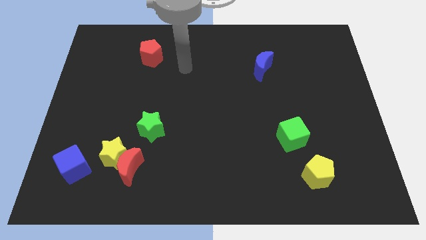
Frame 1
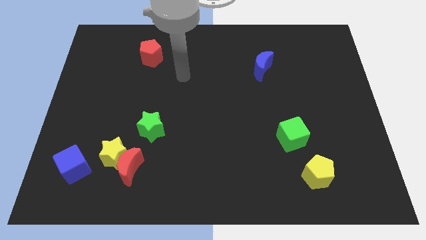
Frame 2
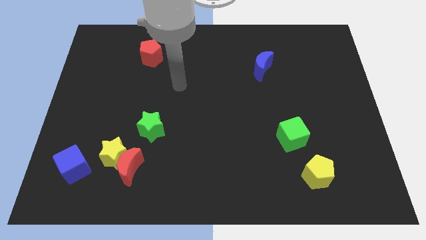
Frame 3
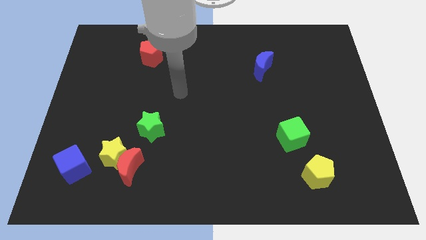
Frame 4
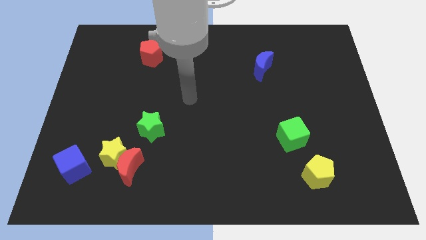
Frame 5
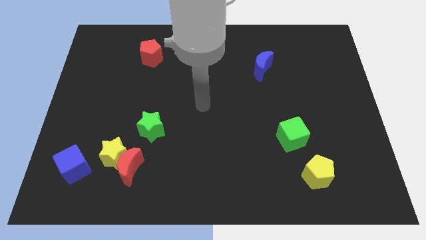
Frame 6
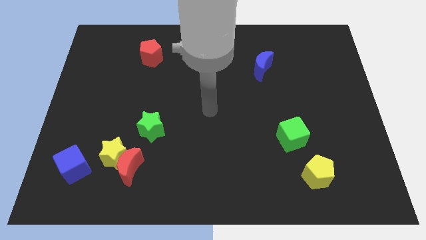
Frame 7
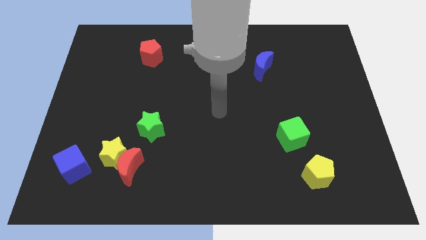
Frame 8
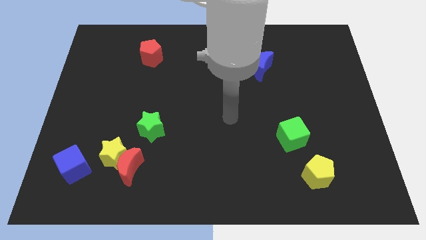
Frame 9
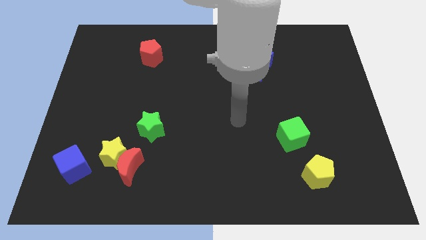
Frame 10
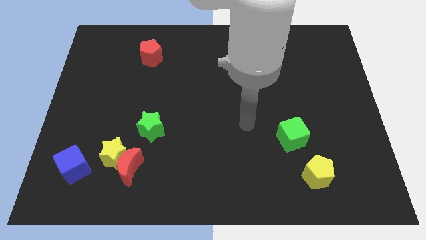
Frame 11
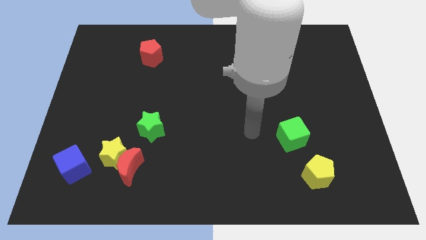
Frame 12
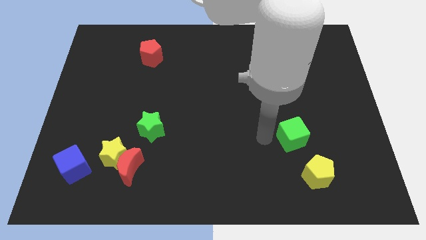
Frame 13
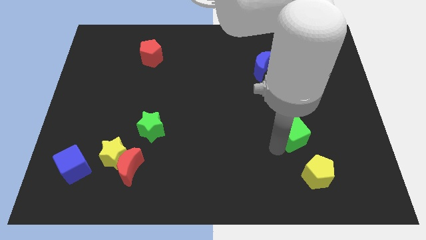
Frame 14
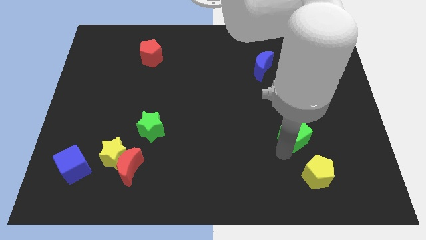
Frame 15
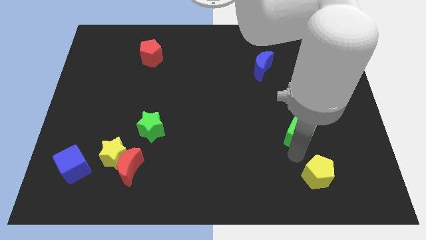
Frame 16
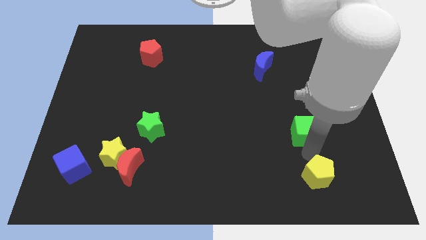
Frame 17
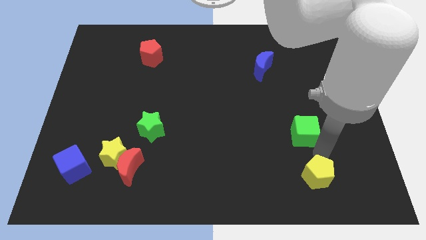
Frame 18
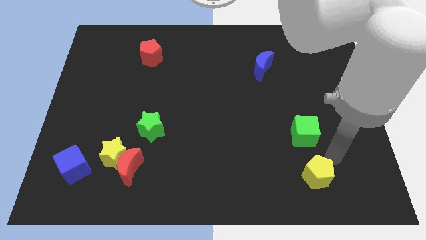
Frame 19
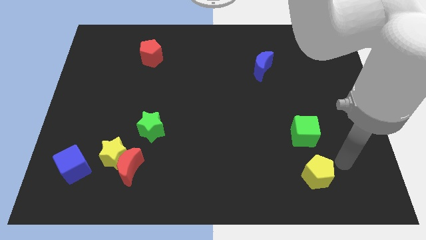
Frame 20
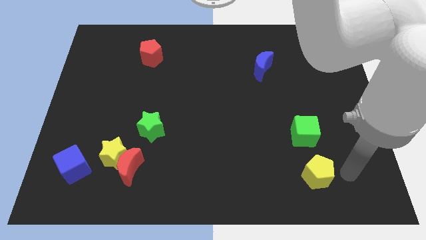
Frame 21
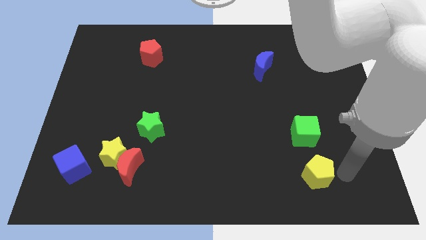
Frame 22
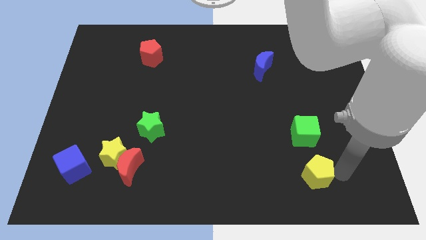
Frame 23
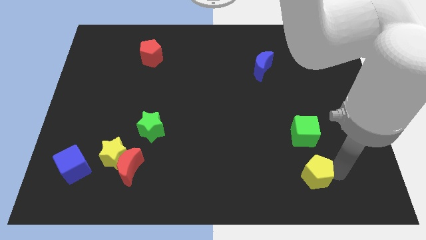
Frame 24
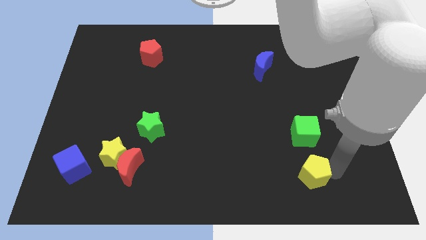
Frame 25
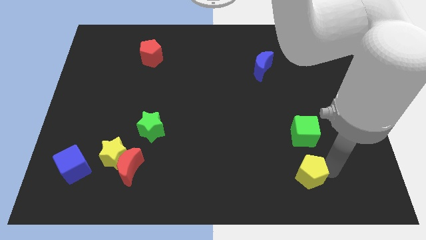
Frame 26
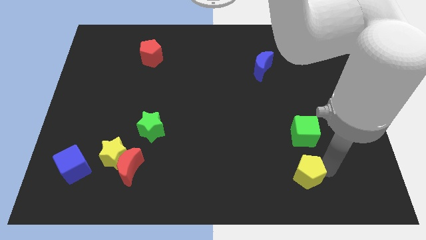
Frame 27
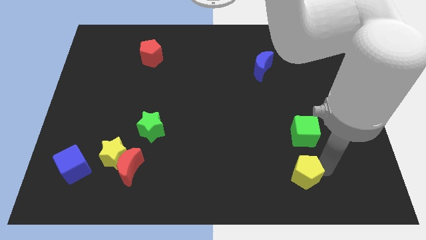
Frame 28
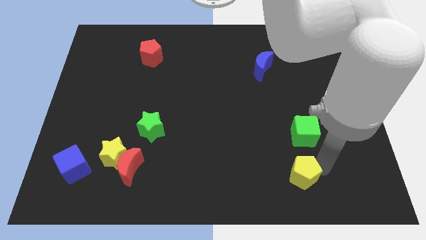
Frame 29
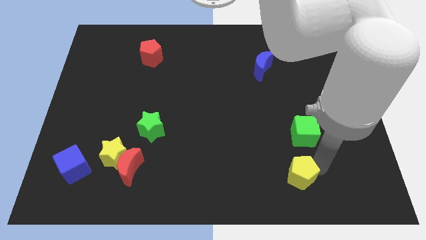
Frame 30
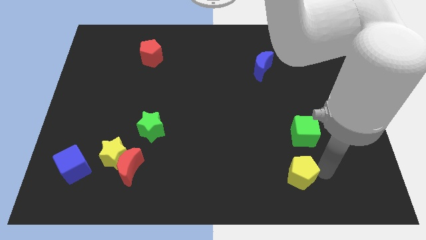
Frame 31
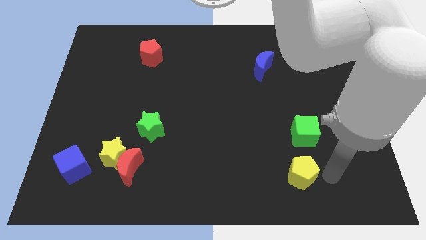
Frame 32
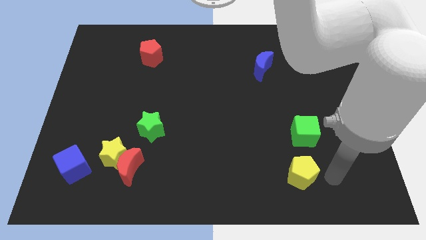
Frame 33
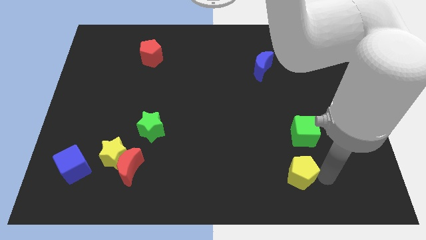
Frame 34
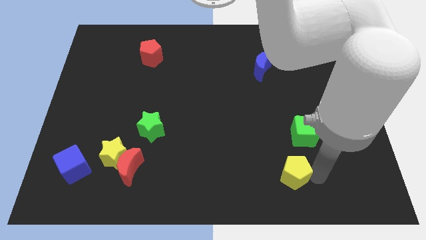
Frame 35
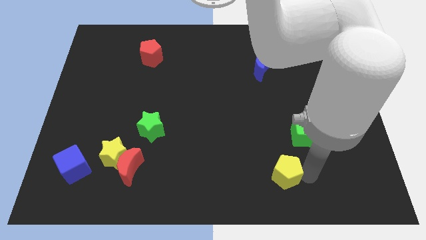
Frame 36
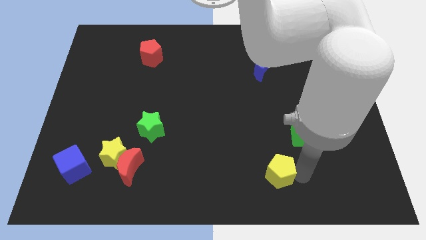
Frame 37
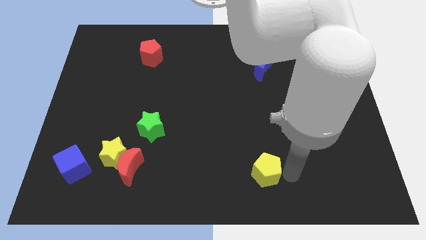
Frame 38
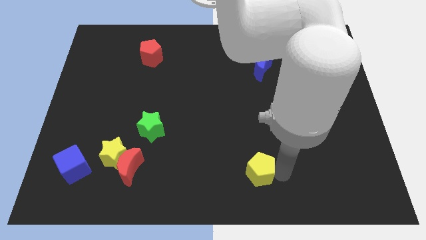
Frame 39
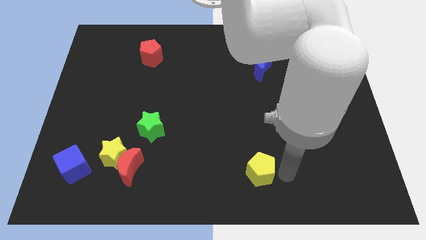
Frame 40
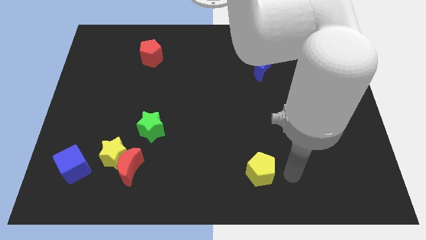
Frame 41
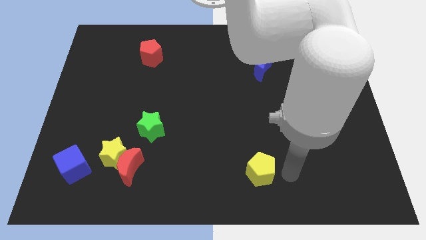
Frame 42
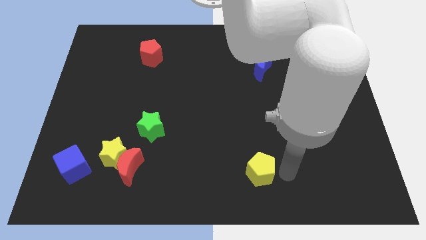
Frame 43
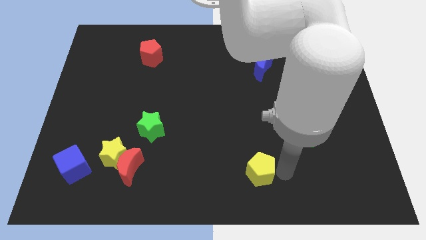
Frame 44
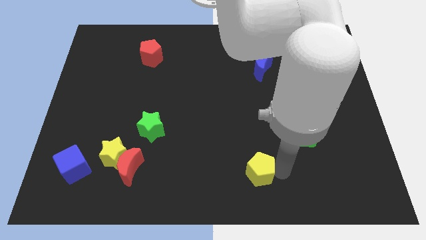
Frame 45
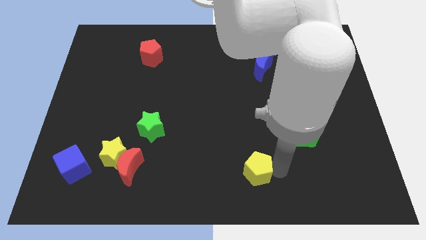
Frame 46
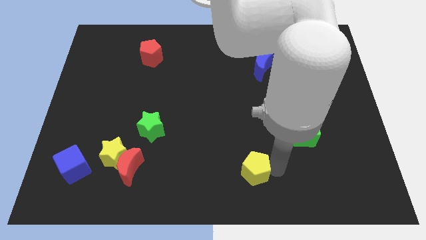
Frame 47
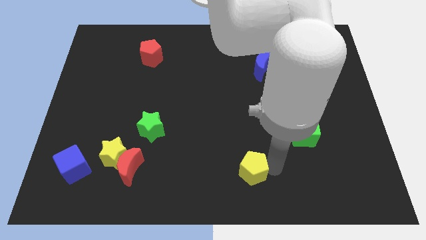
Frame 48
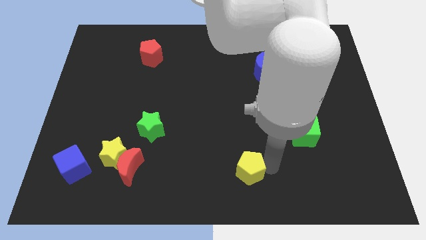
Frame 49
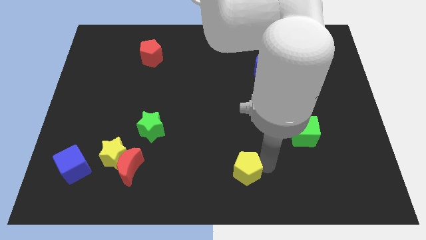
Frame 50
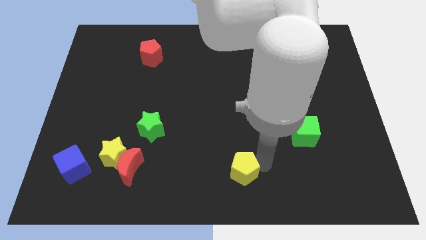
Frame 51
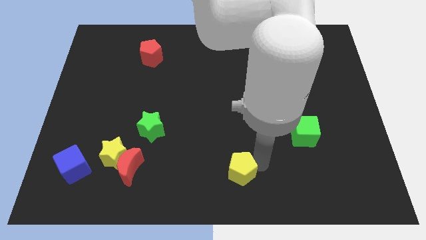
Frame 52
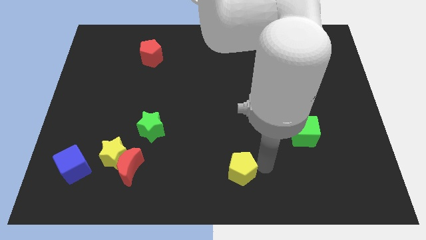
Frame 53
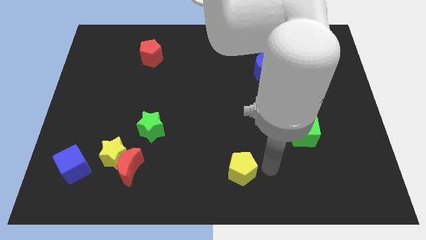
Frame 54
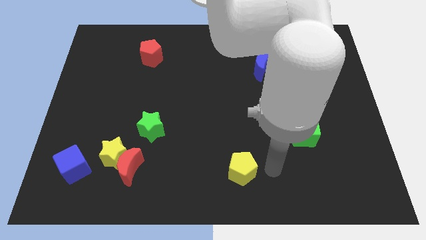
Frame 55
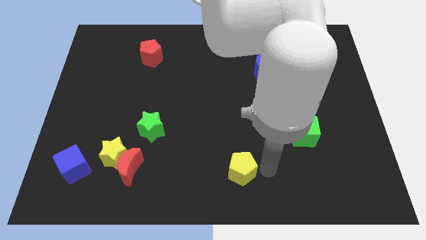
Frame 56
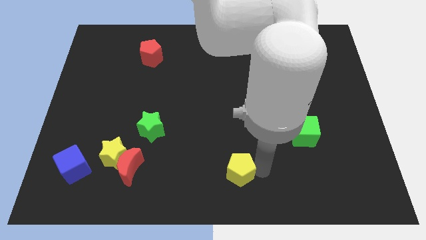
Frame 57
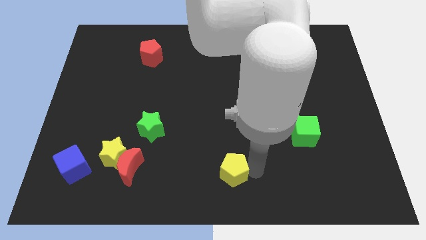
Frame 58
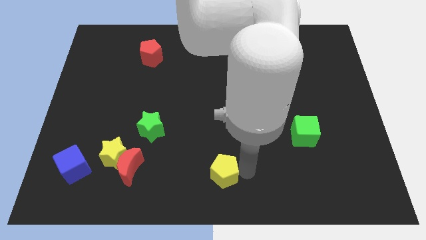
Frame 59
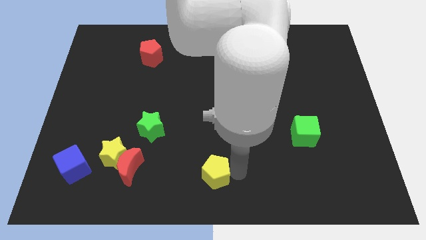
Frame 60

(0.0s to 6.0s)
move the yellow pentagon left

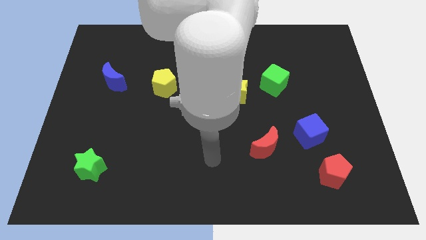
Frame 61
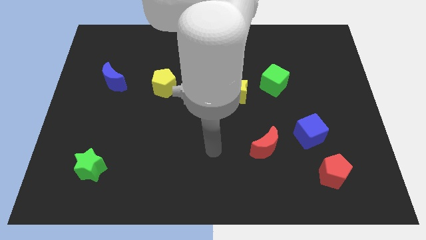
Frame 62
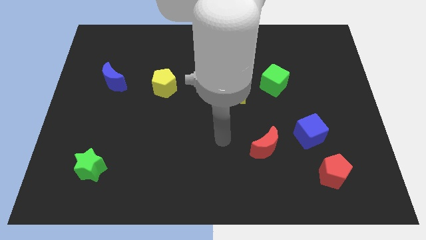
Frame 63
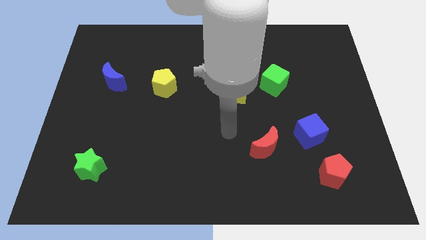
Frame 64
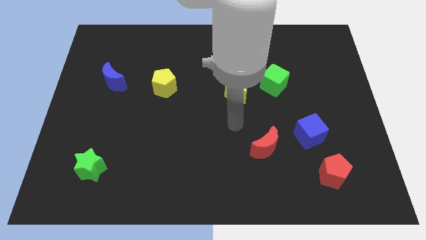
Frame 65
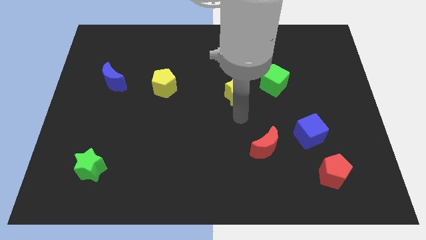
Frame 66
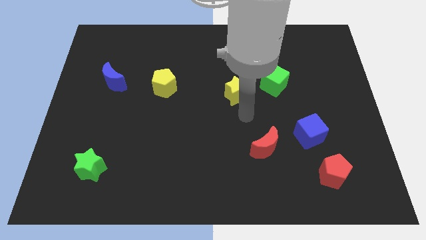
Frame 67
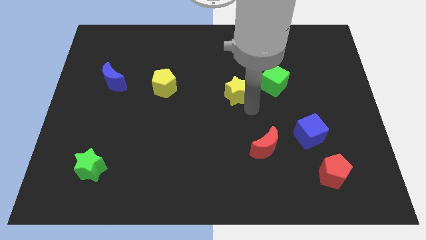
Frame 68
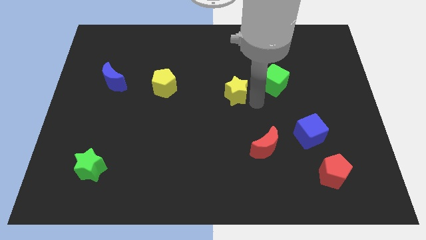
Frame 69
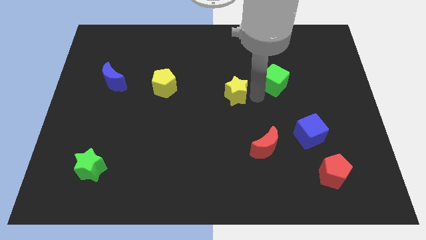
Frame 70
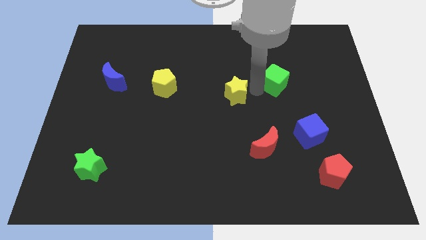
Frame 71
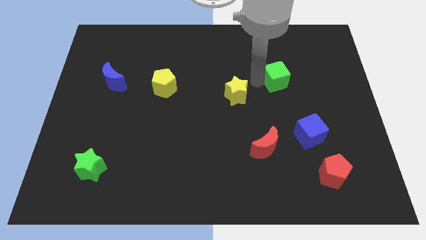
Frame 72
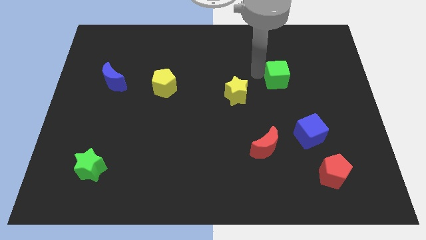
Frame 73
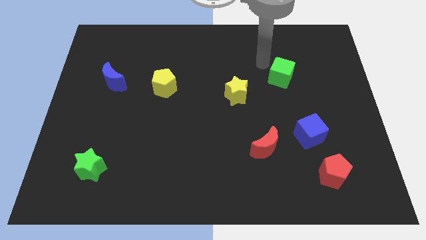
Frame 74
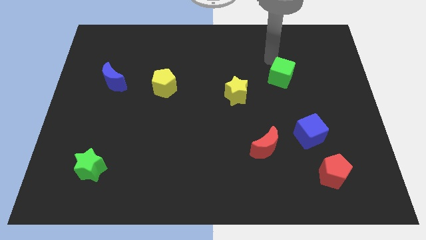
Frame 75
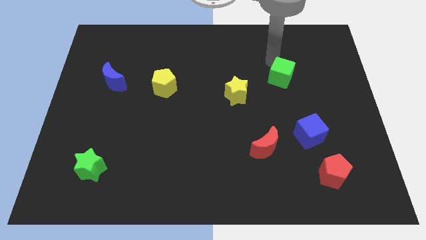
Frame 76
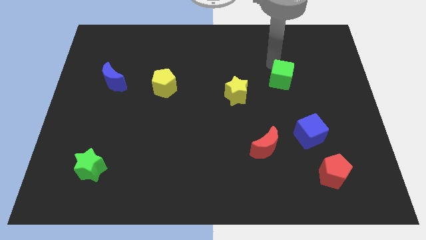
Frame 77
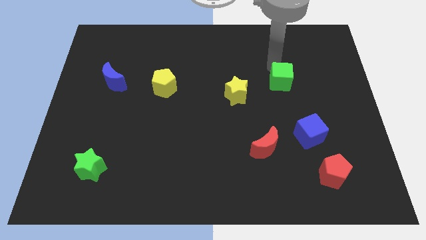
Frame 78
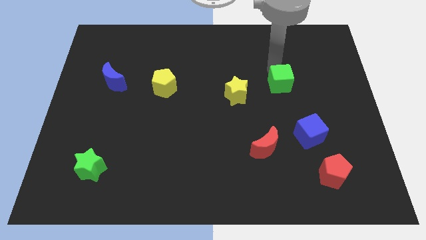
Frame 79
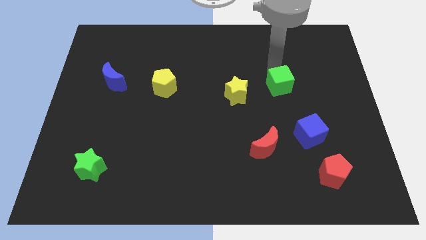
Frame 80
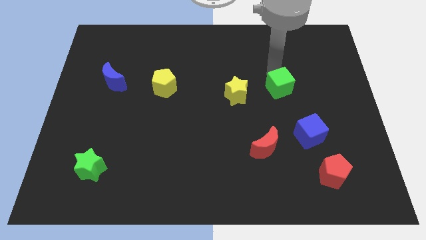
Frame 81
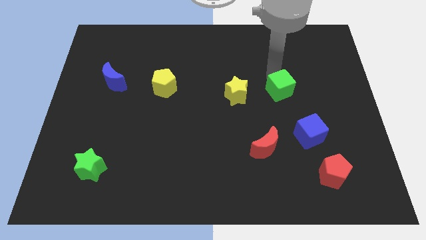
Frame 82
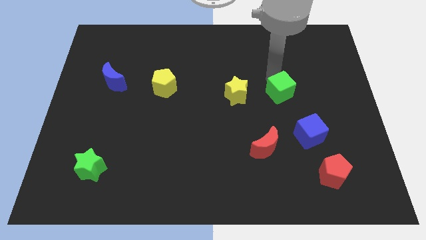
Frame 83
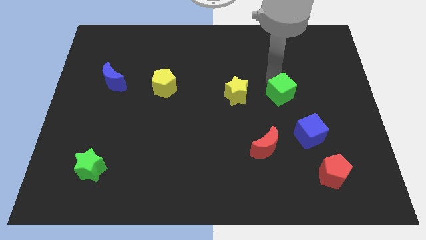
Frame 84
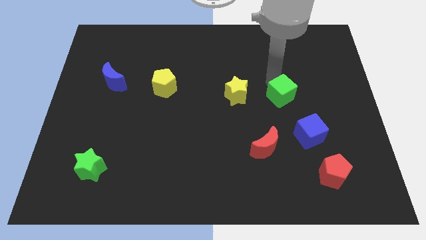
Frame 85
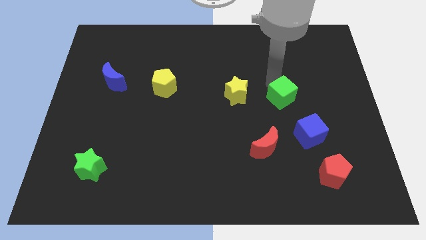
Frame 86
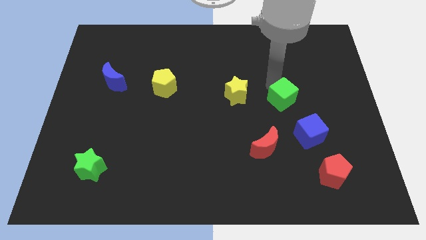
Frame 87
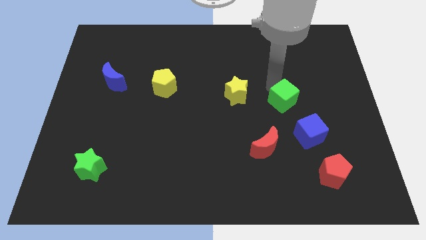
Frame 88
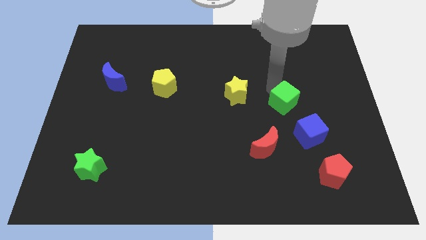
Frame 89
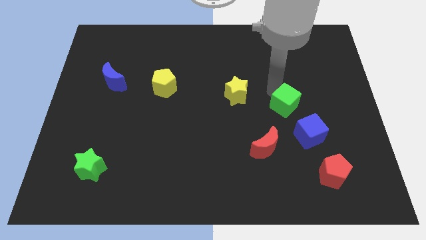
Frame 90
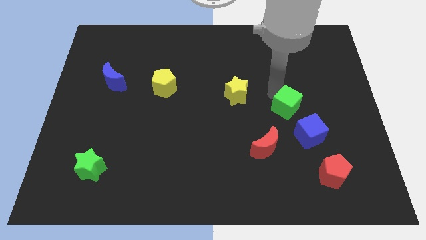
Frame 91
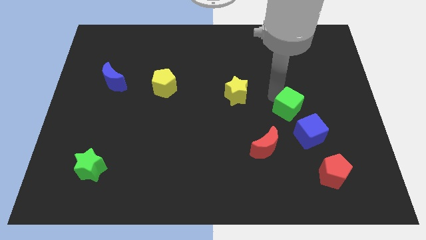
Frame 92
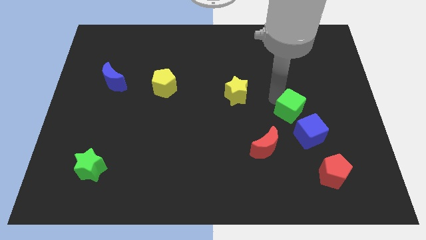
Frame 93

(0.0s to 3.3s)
slightly slide the green cube diagonally downwards and right
